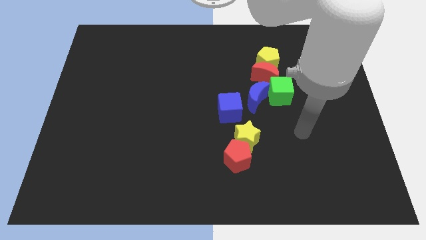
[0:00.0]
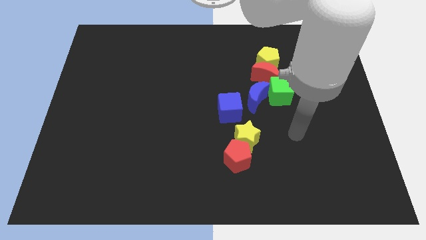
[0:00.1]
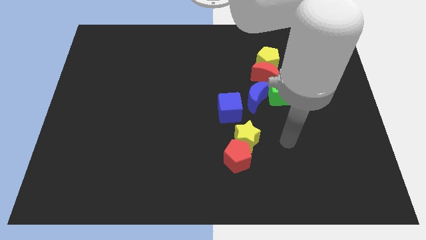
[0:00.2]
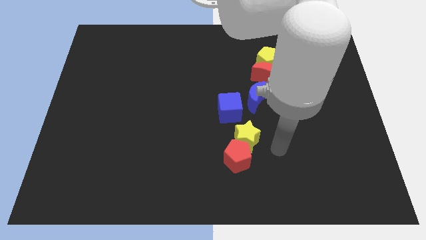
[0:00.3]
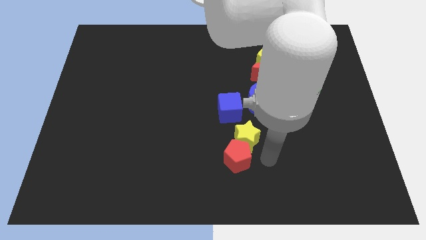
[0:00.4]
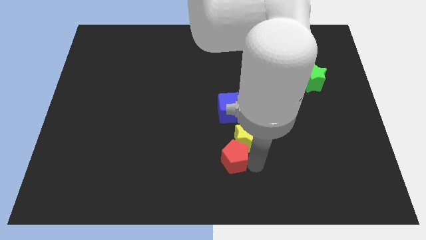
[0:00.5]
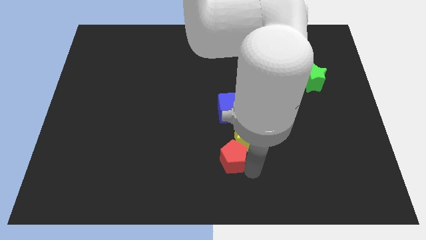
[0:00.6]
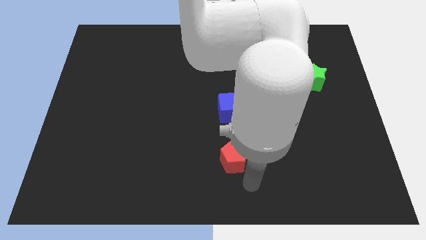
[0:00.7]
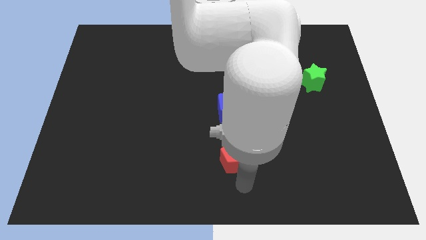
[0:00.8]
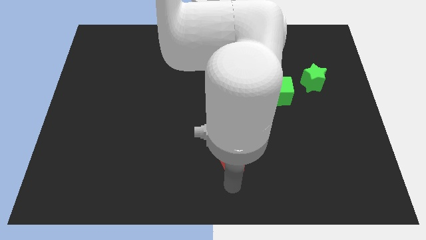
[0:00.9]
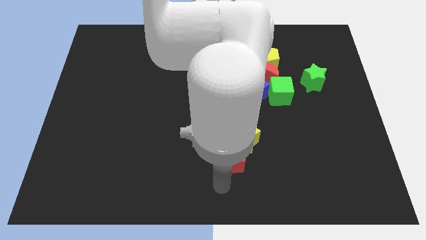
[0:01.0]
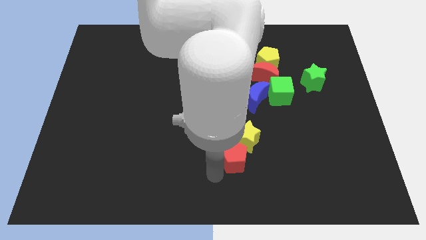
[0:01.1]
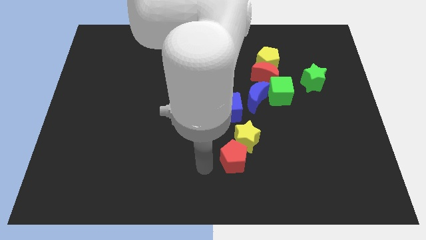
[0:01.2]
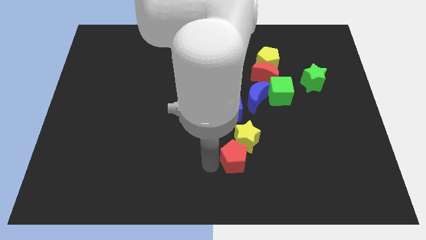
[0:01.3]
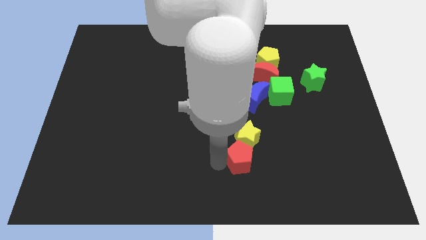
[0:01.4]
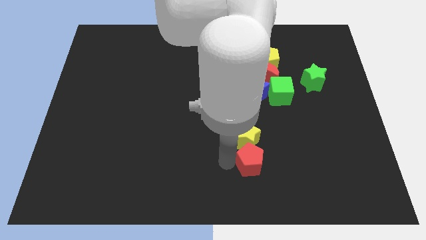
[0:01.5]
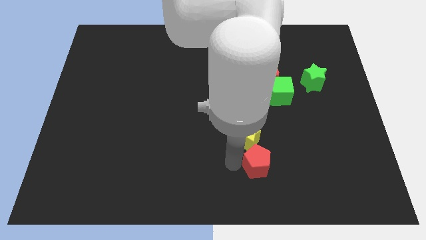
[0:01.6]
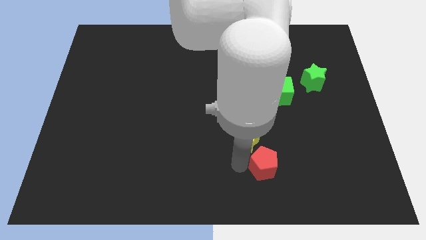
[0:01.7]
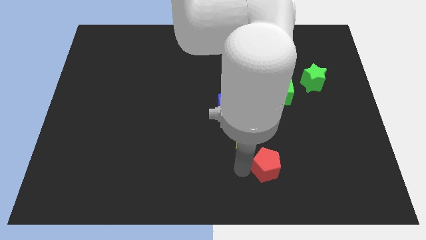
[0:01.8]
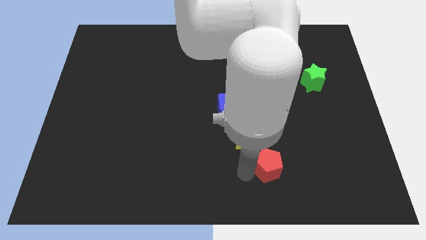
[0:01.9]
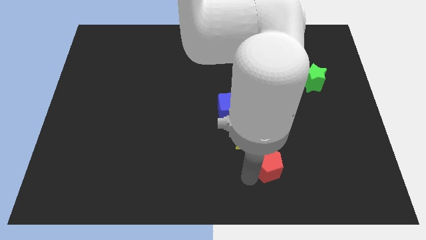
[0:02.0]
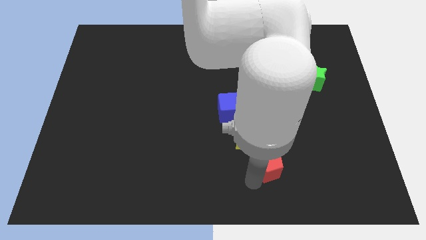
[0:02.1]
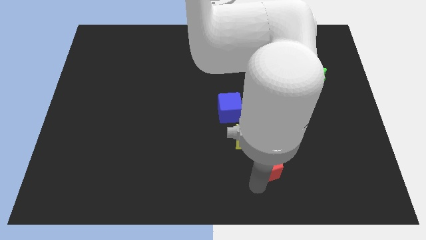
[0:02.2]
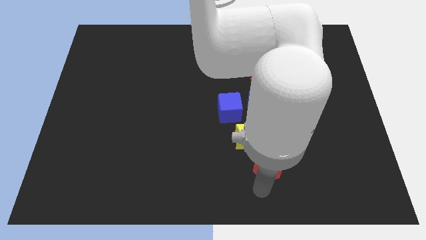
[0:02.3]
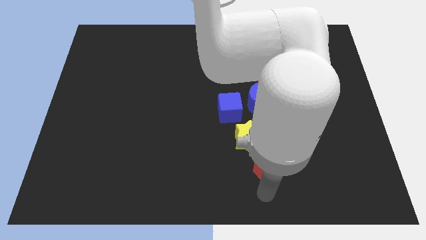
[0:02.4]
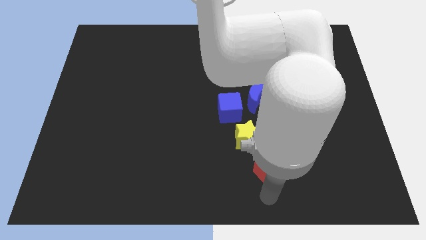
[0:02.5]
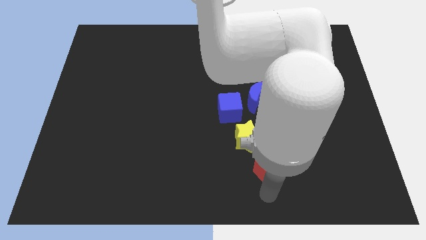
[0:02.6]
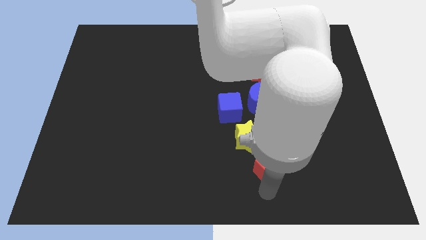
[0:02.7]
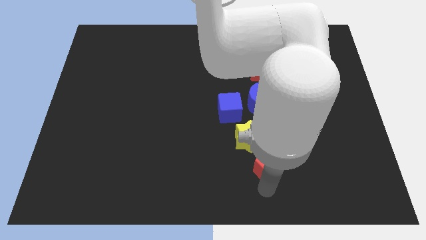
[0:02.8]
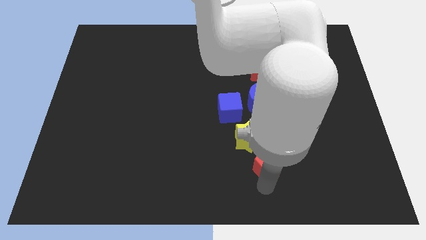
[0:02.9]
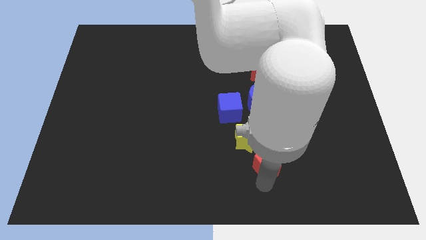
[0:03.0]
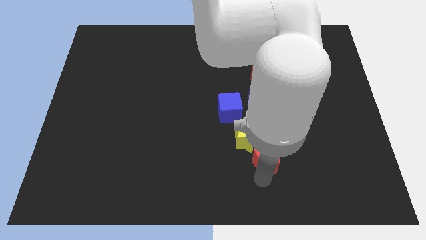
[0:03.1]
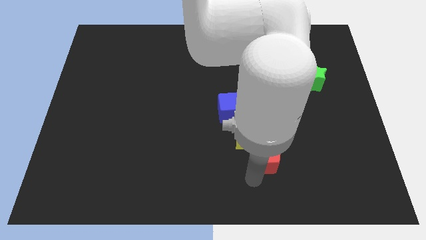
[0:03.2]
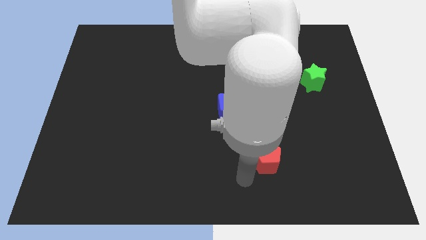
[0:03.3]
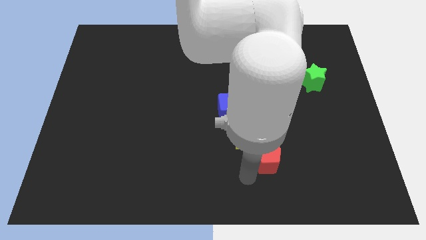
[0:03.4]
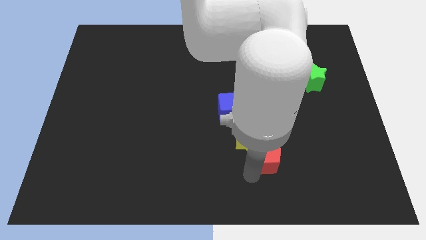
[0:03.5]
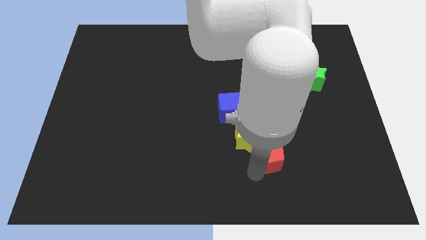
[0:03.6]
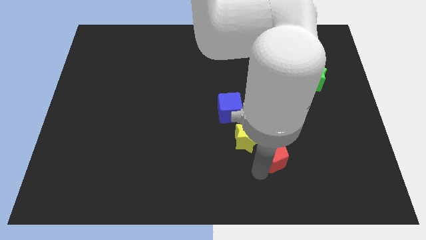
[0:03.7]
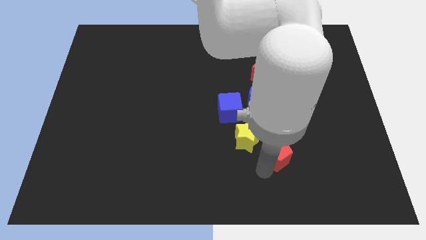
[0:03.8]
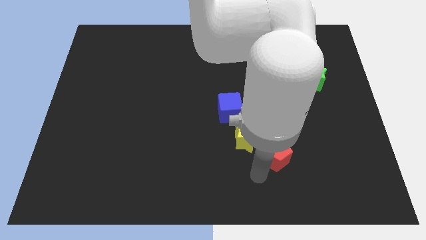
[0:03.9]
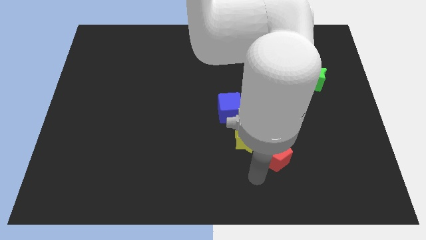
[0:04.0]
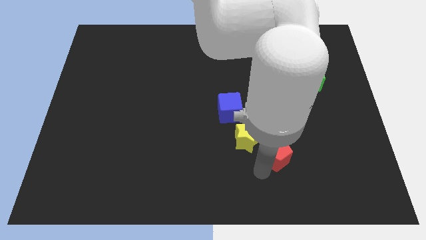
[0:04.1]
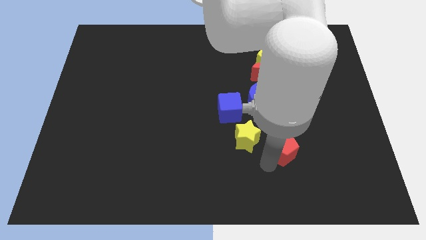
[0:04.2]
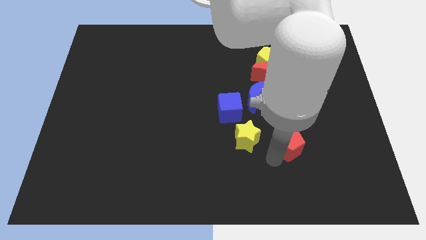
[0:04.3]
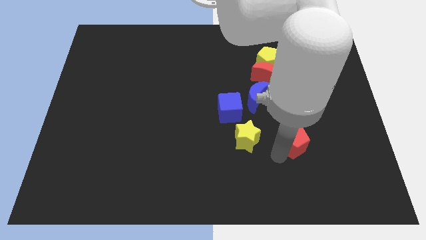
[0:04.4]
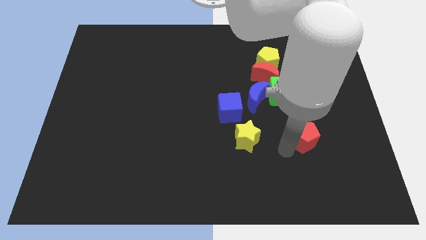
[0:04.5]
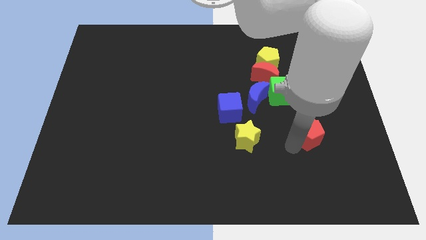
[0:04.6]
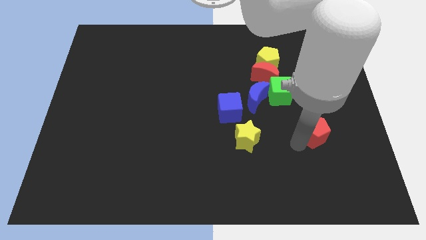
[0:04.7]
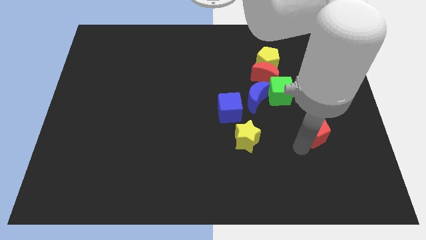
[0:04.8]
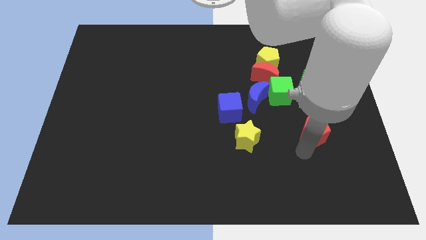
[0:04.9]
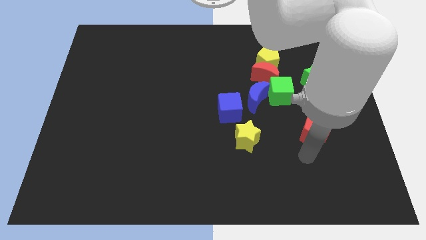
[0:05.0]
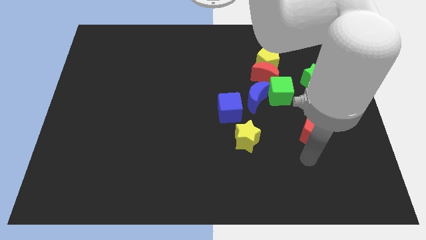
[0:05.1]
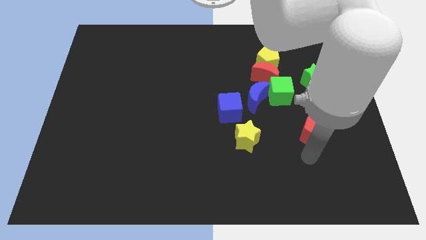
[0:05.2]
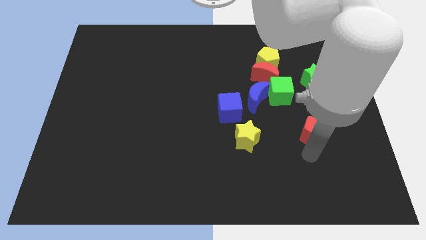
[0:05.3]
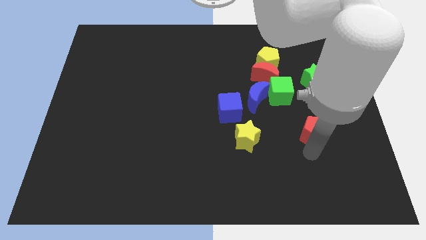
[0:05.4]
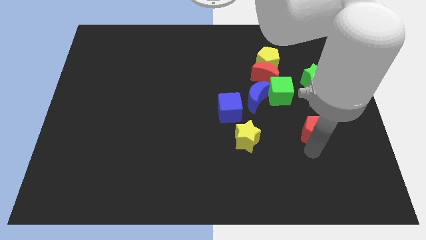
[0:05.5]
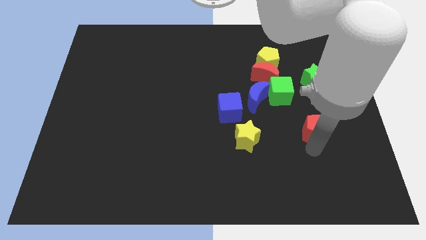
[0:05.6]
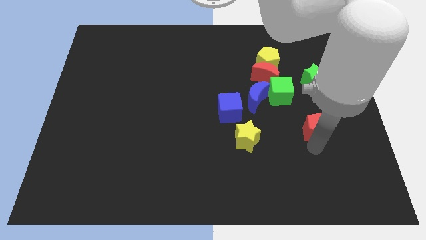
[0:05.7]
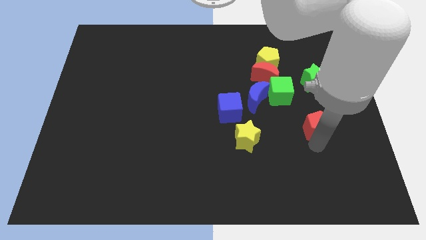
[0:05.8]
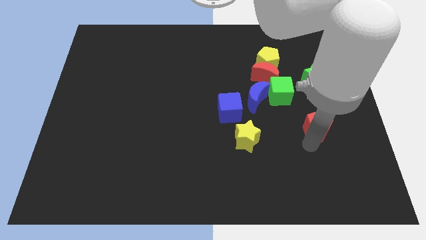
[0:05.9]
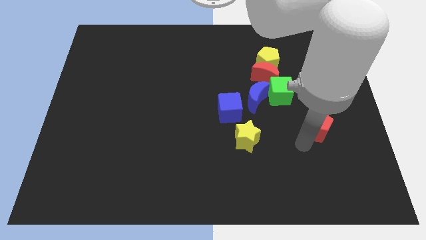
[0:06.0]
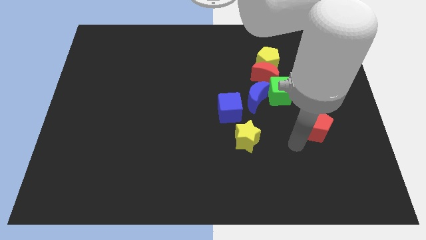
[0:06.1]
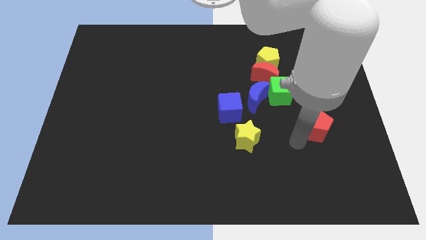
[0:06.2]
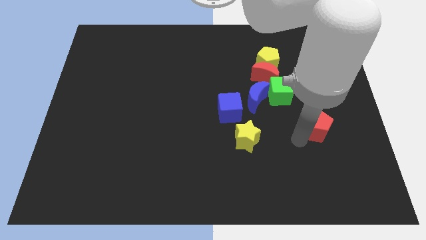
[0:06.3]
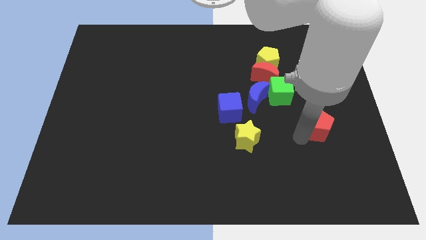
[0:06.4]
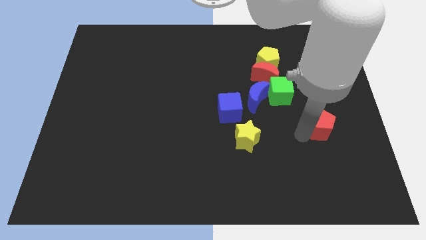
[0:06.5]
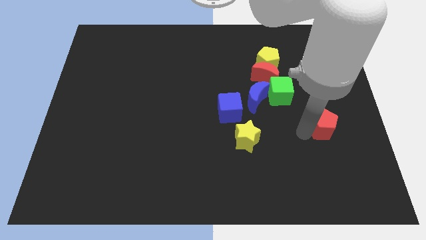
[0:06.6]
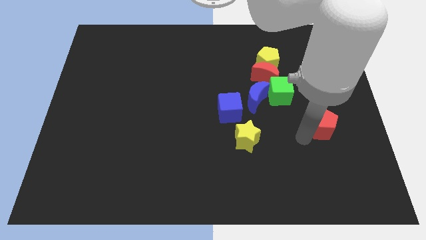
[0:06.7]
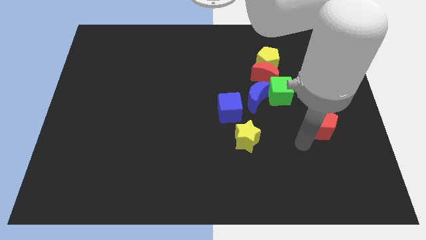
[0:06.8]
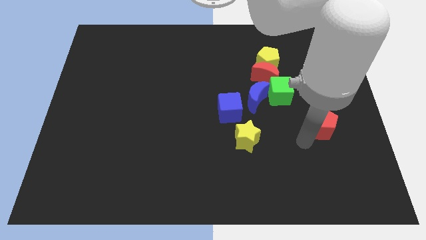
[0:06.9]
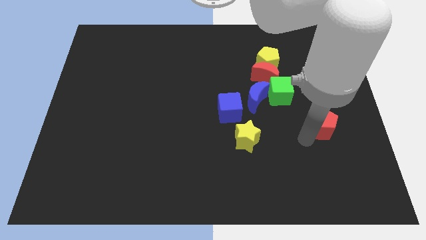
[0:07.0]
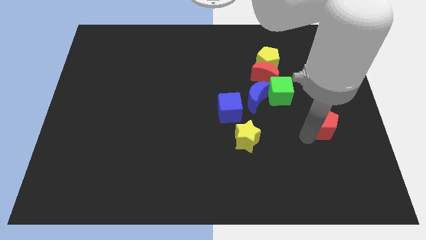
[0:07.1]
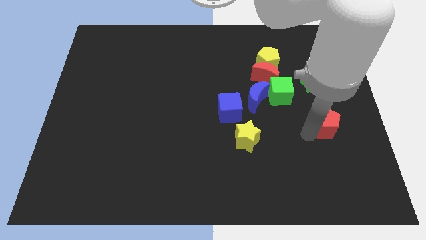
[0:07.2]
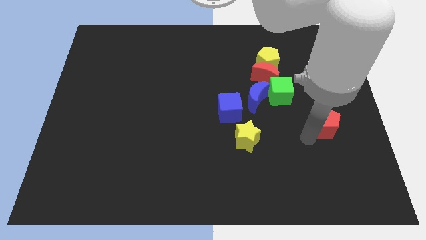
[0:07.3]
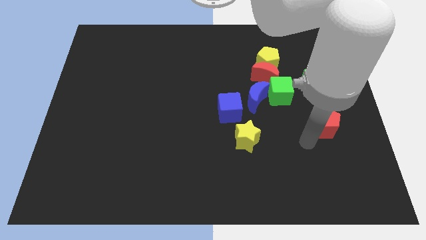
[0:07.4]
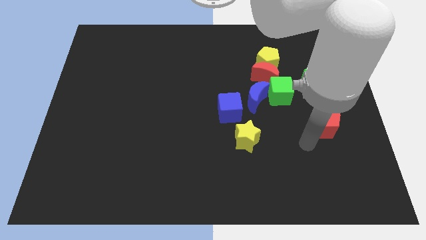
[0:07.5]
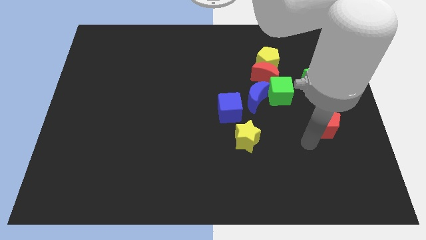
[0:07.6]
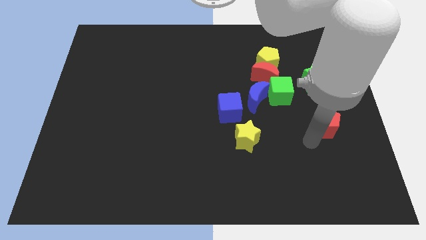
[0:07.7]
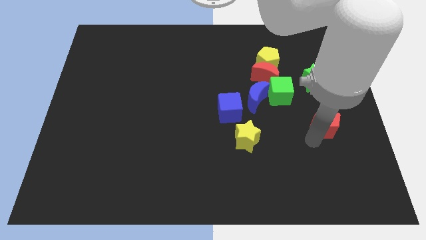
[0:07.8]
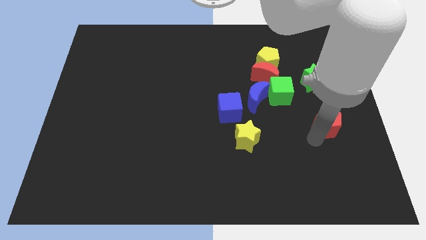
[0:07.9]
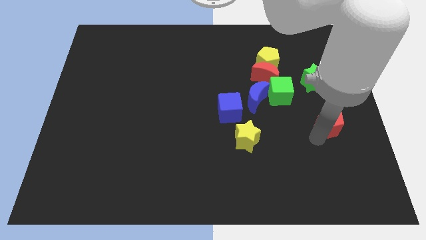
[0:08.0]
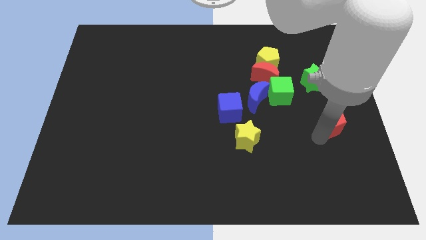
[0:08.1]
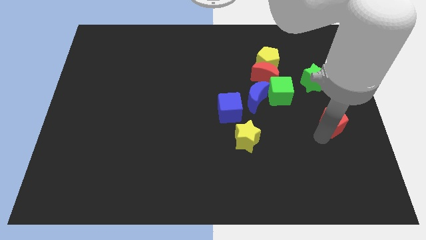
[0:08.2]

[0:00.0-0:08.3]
slide the red pentagon to the right side
